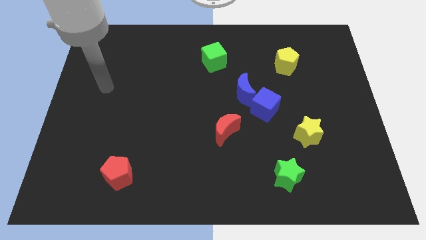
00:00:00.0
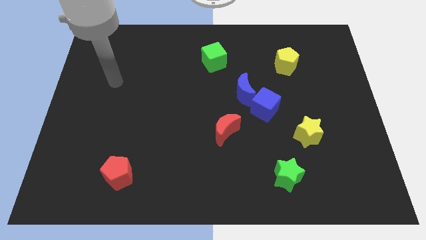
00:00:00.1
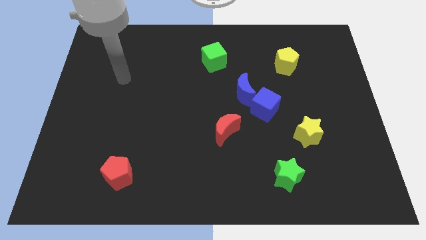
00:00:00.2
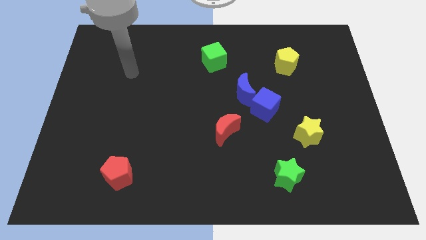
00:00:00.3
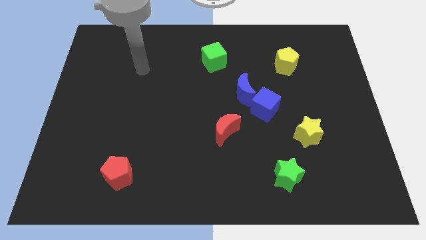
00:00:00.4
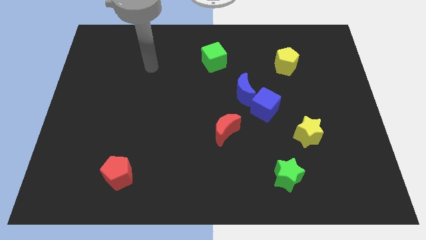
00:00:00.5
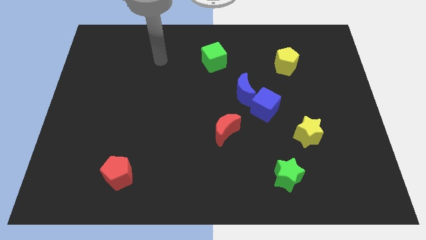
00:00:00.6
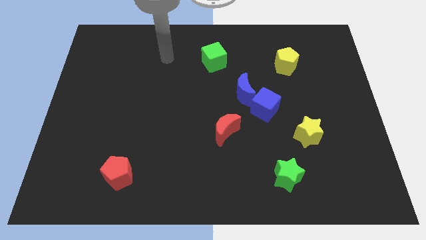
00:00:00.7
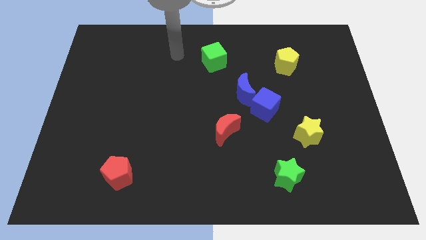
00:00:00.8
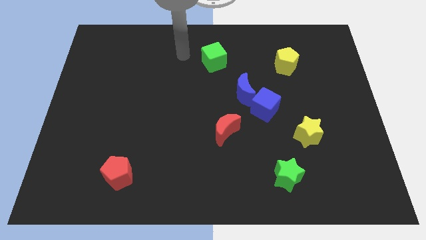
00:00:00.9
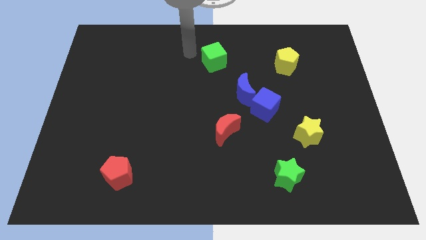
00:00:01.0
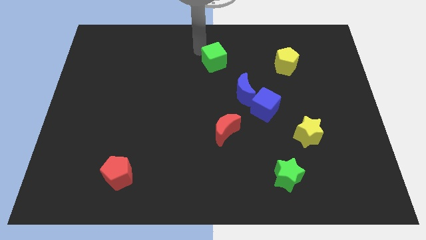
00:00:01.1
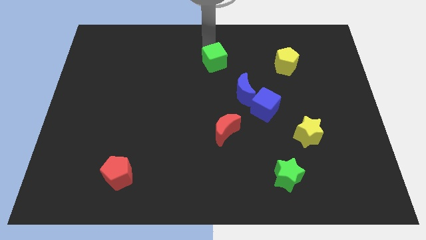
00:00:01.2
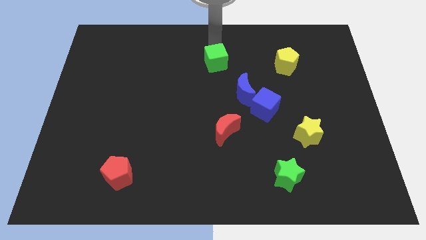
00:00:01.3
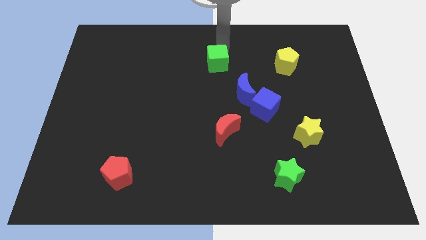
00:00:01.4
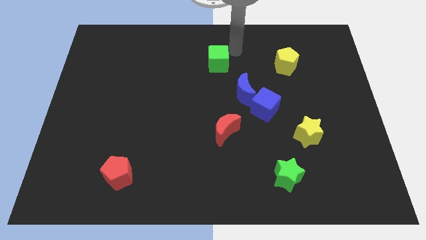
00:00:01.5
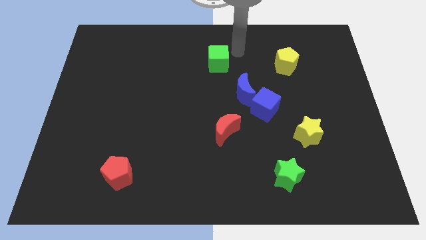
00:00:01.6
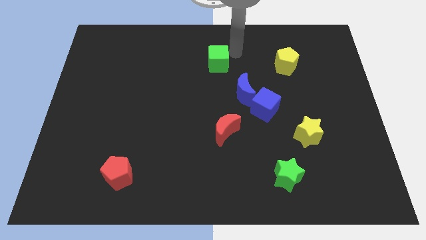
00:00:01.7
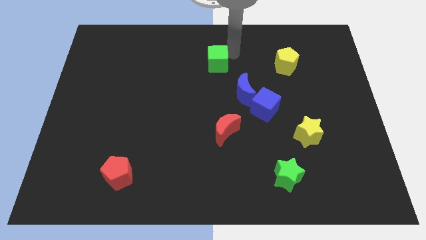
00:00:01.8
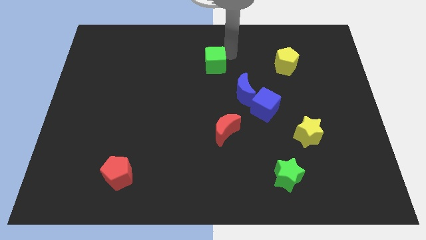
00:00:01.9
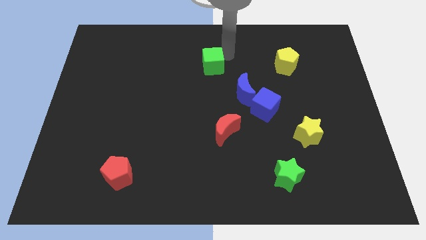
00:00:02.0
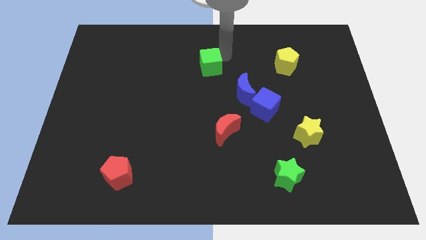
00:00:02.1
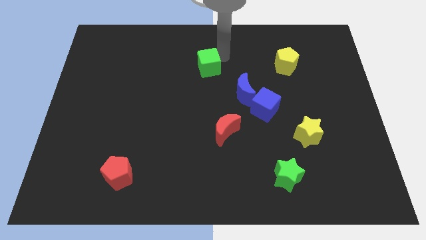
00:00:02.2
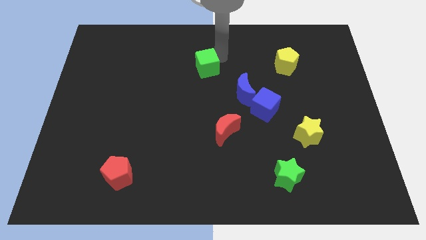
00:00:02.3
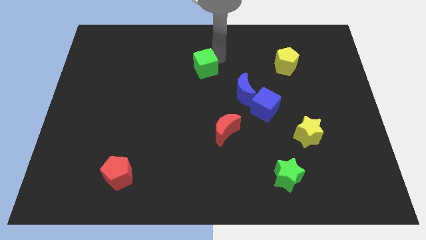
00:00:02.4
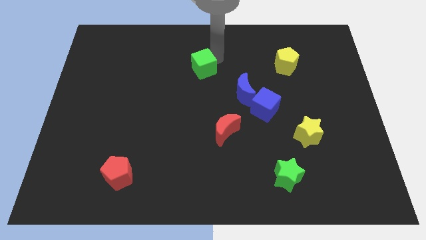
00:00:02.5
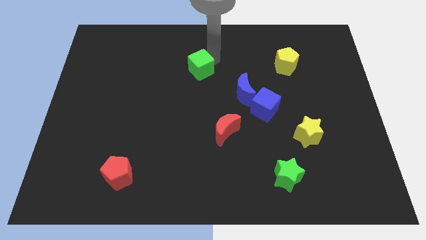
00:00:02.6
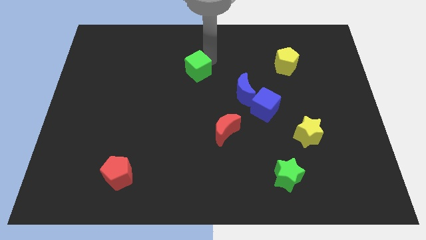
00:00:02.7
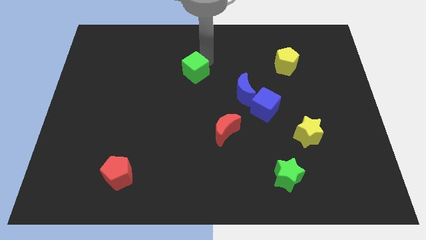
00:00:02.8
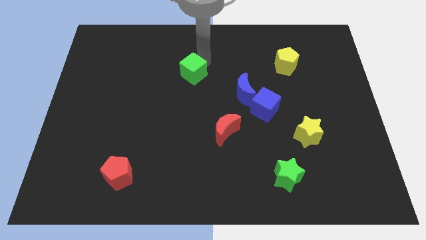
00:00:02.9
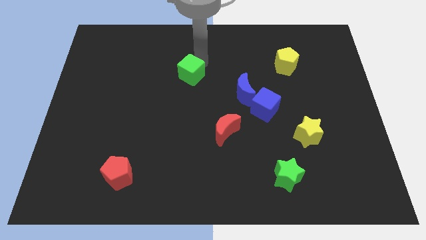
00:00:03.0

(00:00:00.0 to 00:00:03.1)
push the green cube down and left diagonally a bit

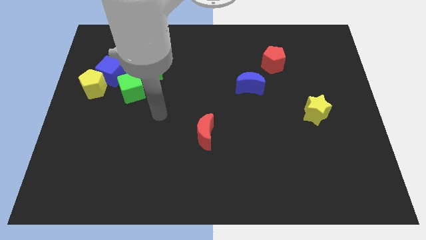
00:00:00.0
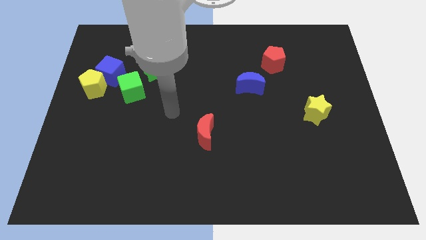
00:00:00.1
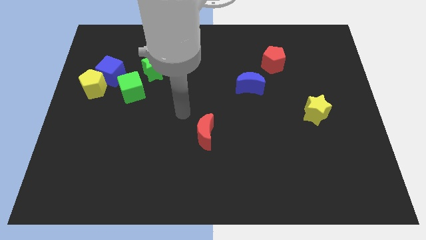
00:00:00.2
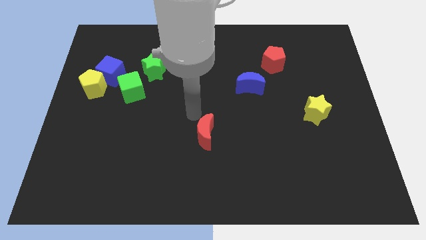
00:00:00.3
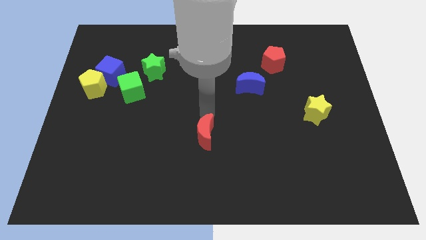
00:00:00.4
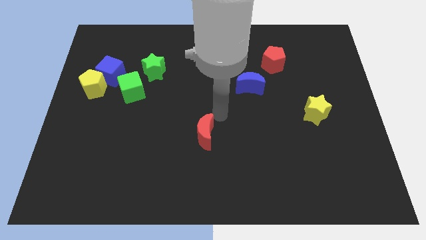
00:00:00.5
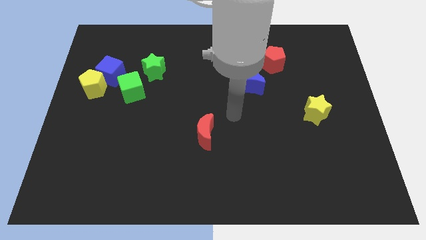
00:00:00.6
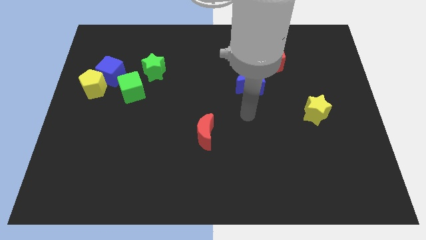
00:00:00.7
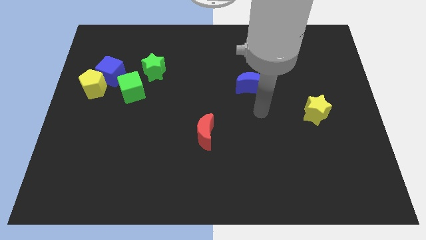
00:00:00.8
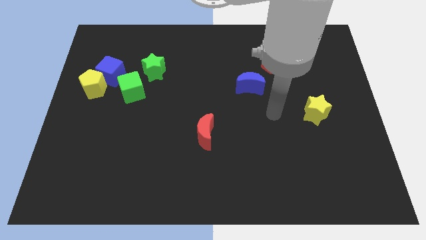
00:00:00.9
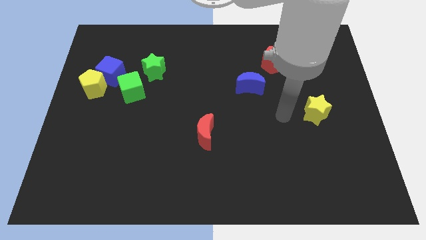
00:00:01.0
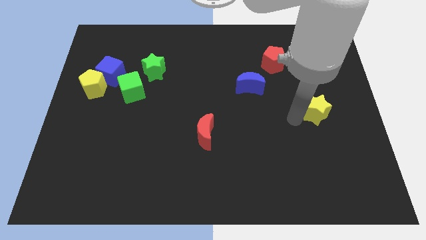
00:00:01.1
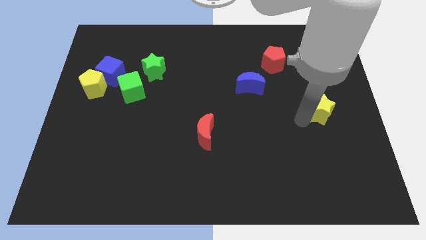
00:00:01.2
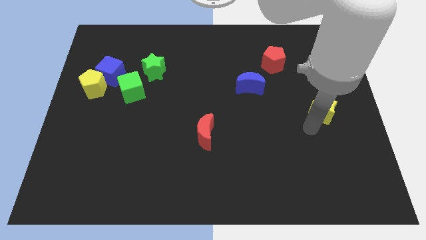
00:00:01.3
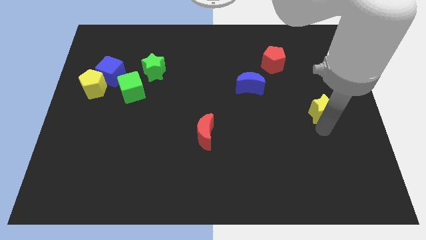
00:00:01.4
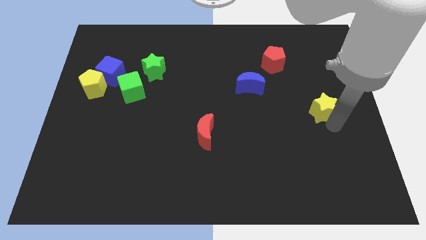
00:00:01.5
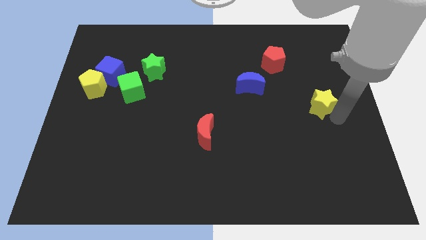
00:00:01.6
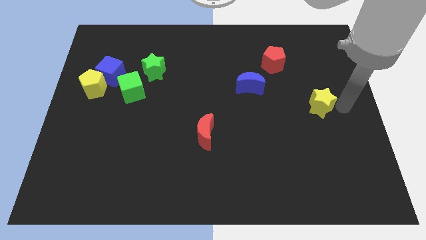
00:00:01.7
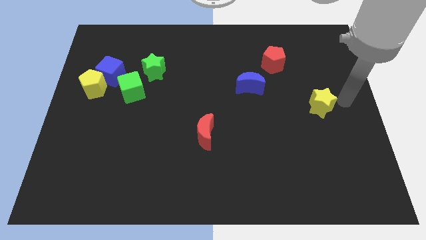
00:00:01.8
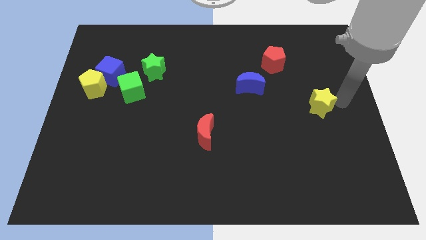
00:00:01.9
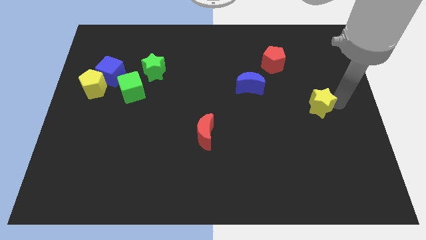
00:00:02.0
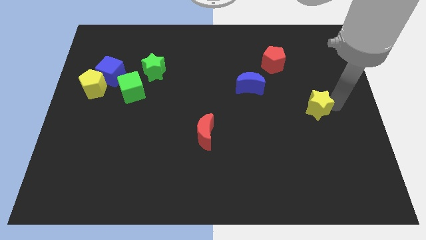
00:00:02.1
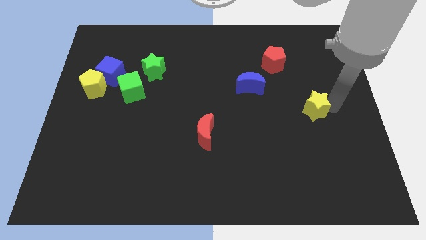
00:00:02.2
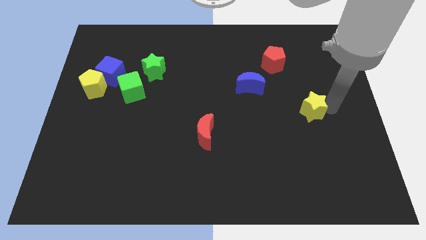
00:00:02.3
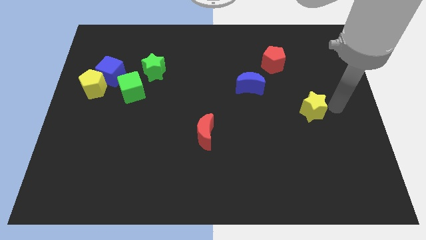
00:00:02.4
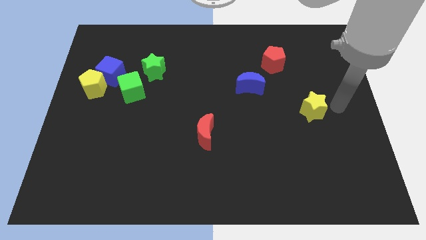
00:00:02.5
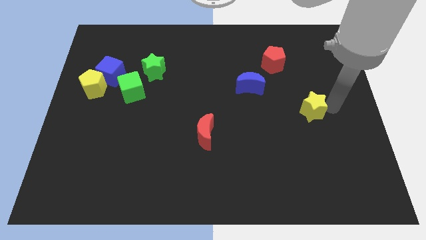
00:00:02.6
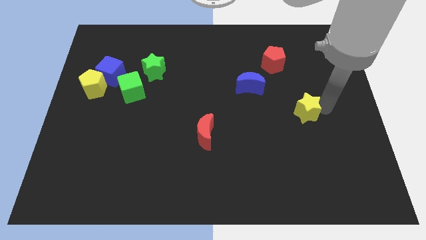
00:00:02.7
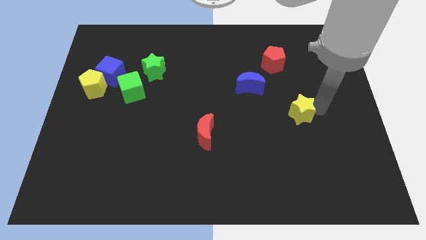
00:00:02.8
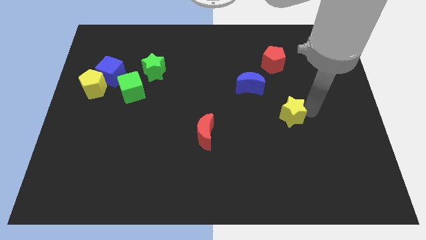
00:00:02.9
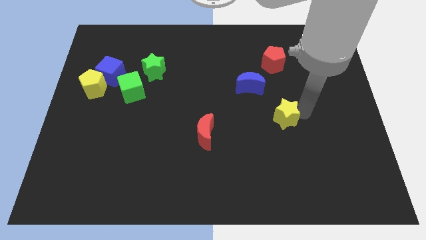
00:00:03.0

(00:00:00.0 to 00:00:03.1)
slightly move the yellow star left

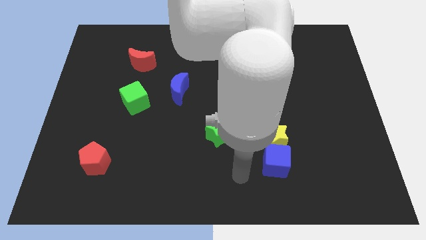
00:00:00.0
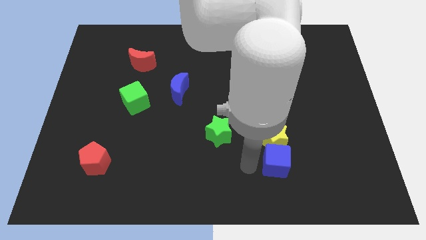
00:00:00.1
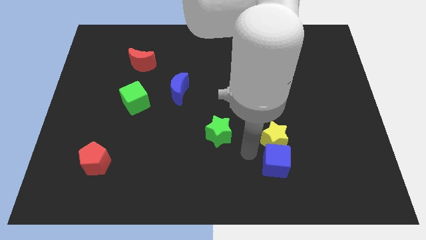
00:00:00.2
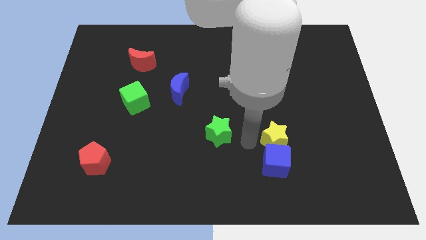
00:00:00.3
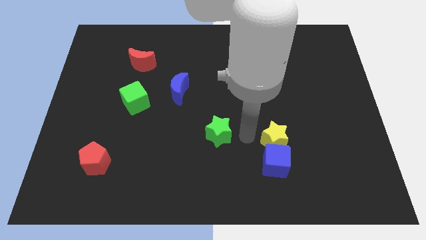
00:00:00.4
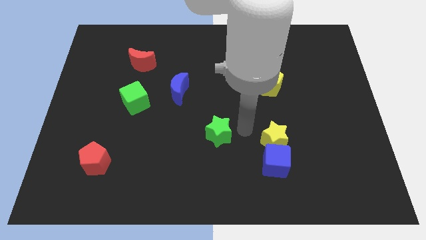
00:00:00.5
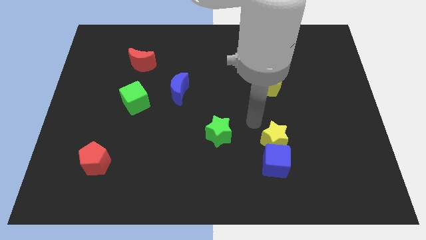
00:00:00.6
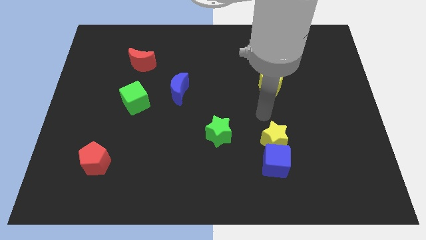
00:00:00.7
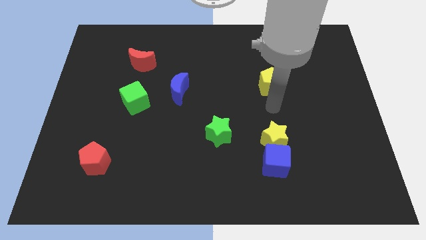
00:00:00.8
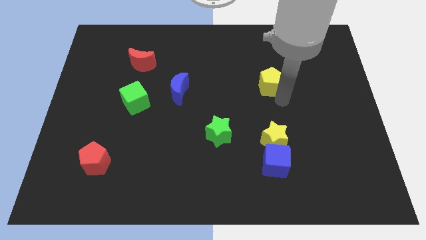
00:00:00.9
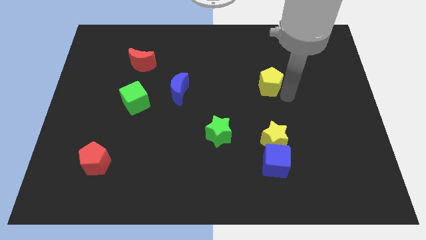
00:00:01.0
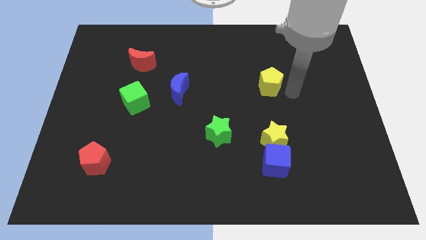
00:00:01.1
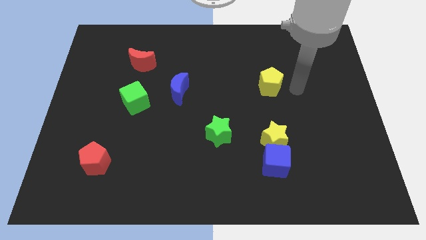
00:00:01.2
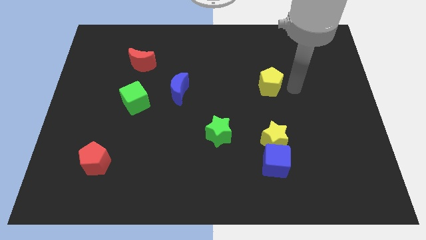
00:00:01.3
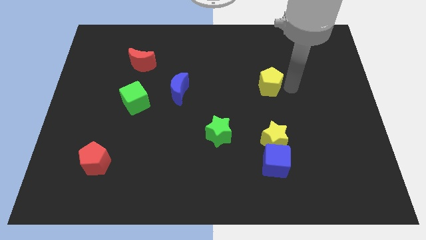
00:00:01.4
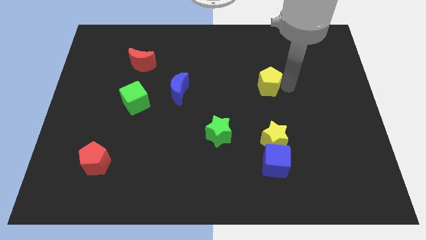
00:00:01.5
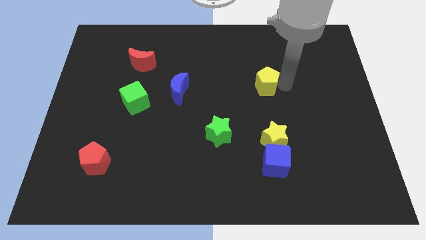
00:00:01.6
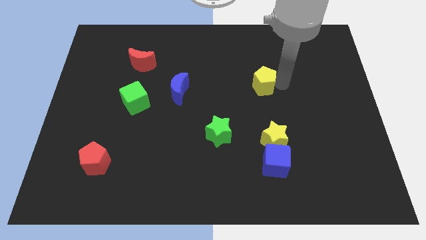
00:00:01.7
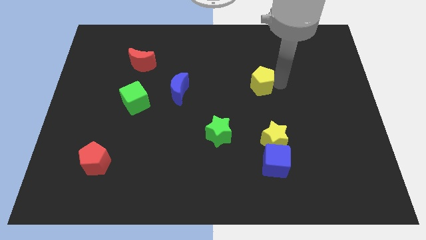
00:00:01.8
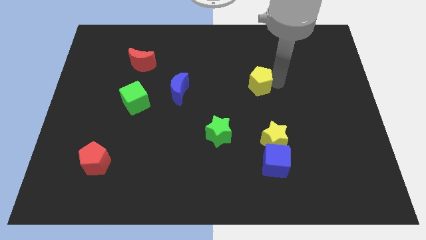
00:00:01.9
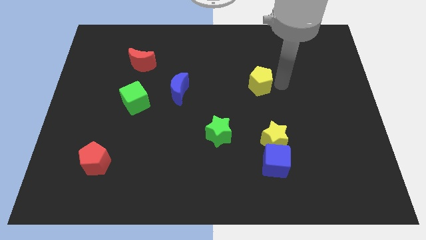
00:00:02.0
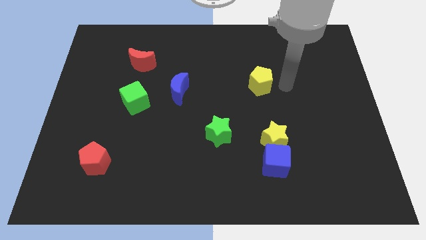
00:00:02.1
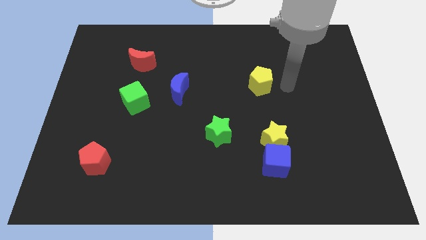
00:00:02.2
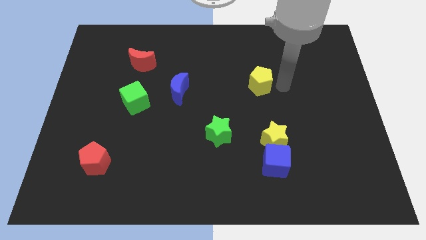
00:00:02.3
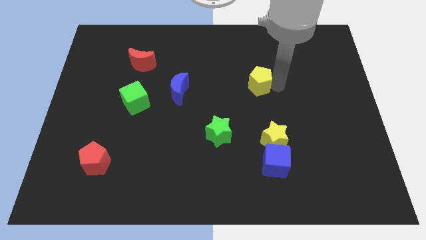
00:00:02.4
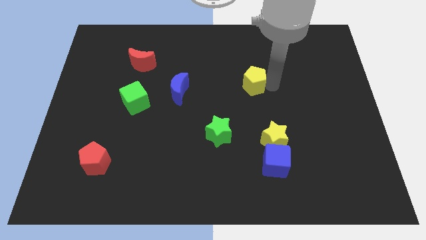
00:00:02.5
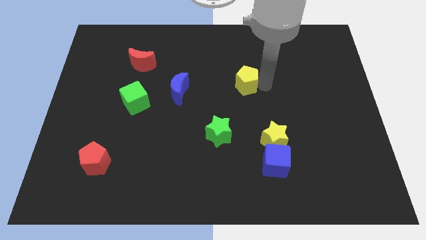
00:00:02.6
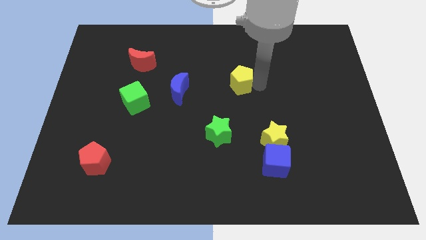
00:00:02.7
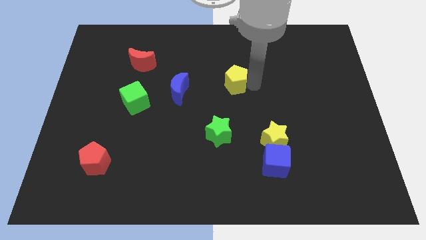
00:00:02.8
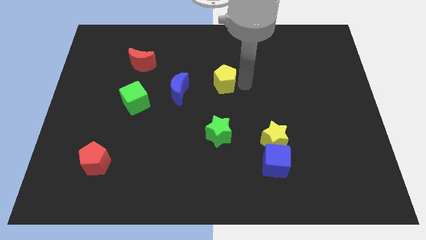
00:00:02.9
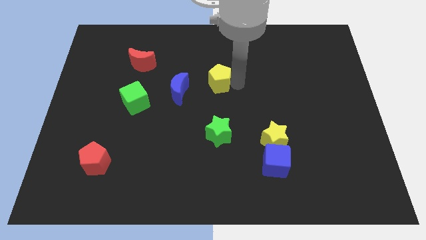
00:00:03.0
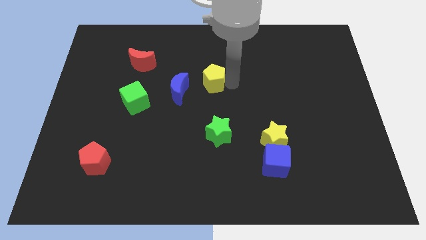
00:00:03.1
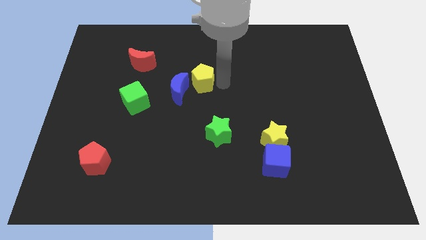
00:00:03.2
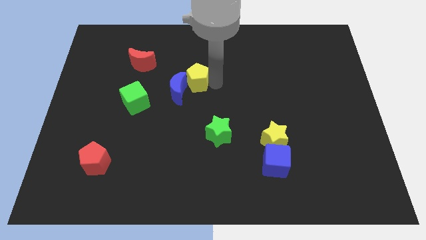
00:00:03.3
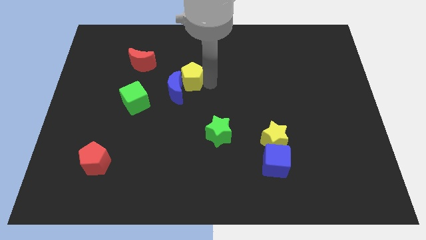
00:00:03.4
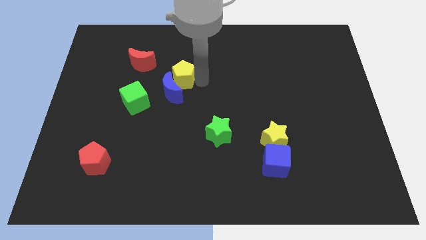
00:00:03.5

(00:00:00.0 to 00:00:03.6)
move the yellow pentagon to the left
